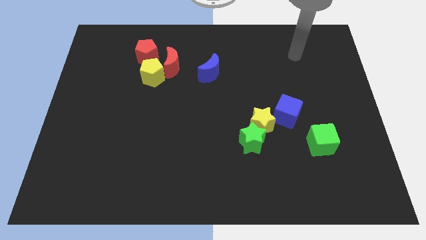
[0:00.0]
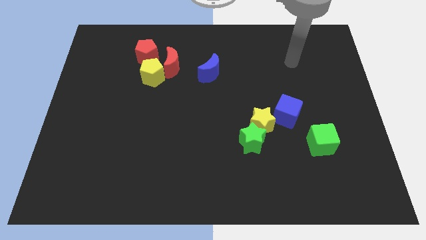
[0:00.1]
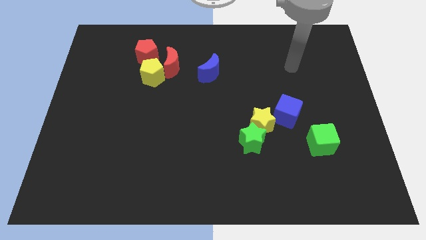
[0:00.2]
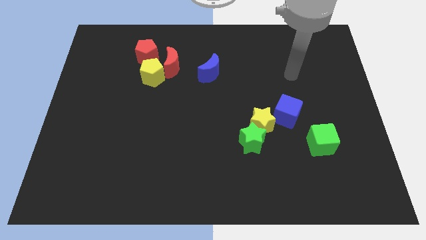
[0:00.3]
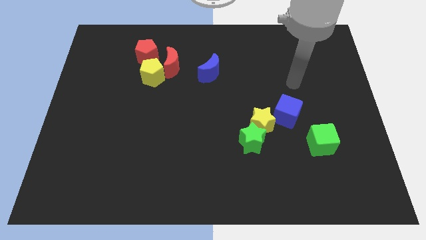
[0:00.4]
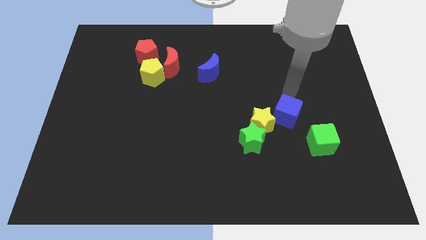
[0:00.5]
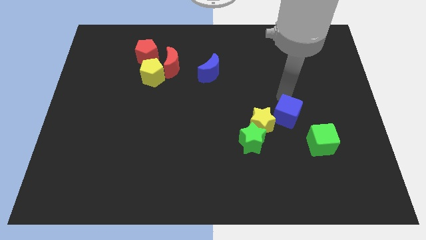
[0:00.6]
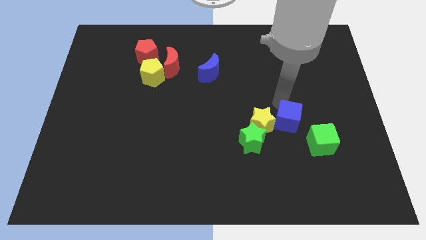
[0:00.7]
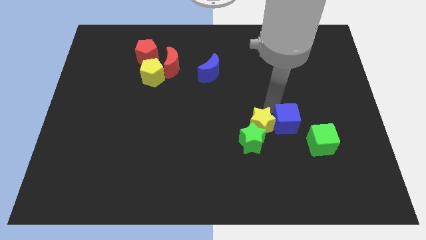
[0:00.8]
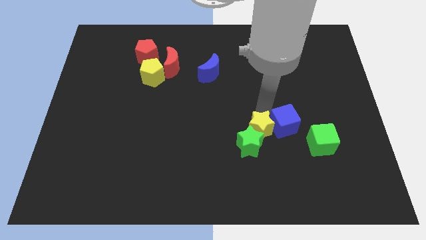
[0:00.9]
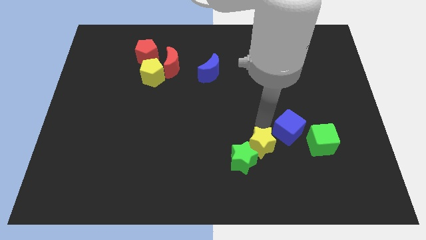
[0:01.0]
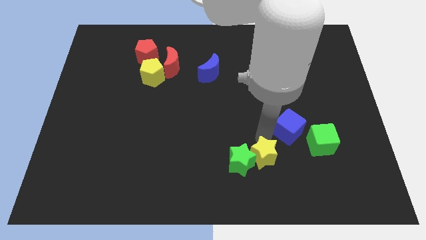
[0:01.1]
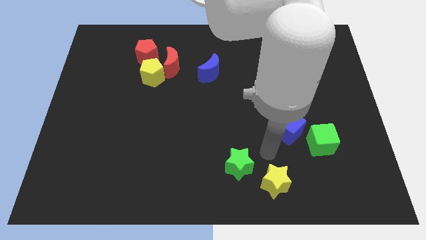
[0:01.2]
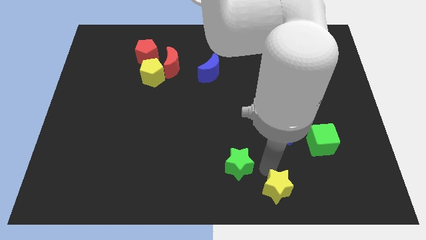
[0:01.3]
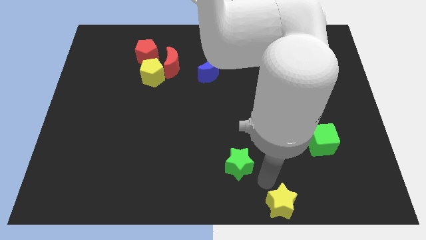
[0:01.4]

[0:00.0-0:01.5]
separate the green star from the yellow star

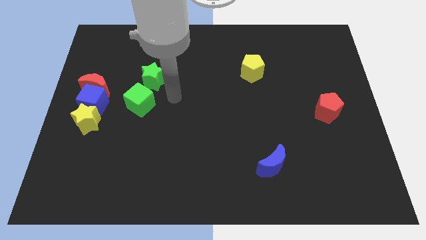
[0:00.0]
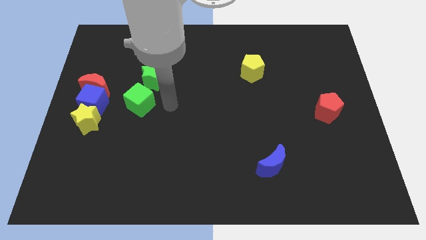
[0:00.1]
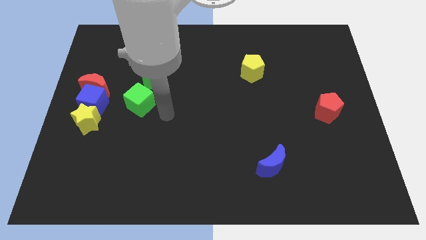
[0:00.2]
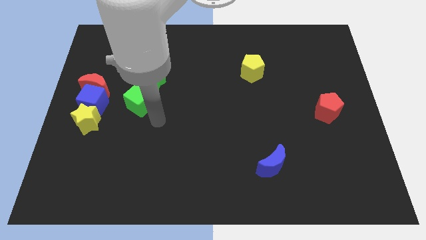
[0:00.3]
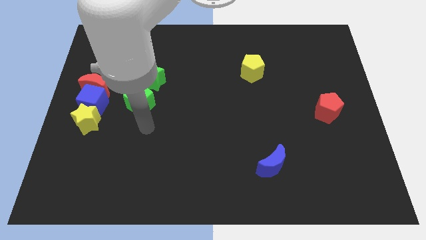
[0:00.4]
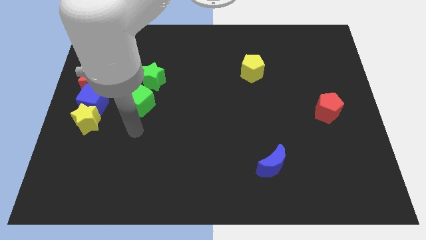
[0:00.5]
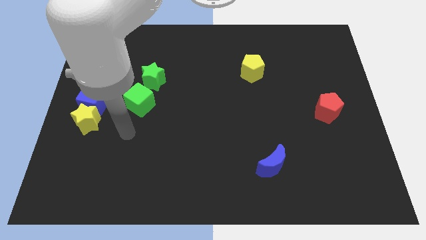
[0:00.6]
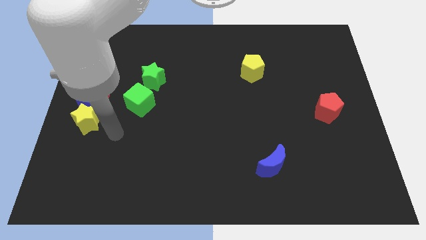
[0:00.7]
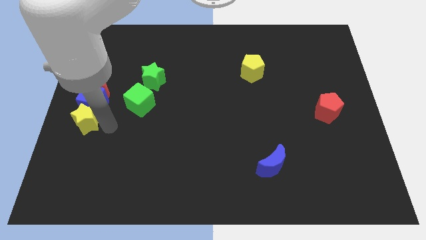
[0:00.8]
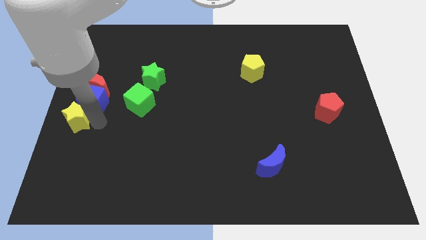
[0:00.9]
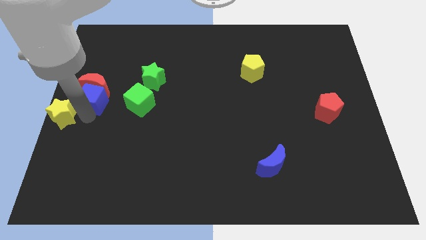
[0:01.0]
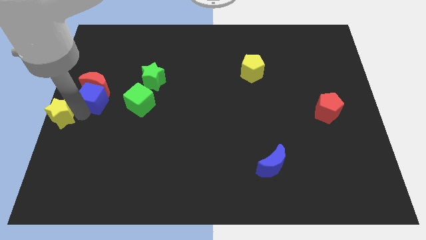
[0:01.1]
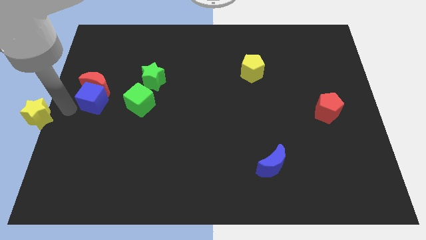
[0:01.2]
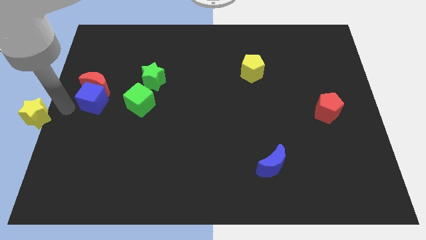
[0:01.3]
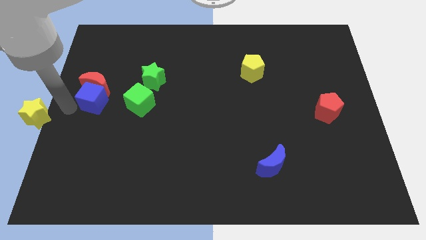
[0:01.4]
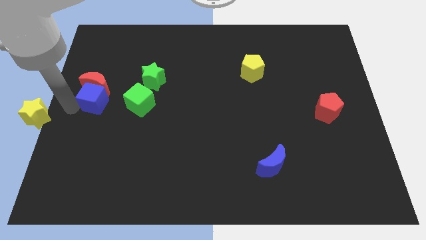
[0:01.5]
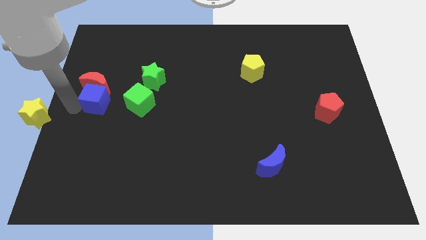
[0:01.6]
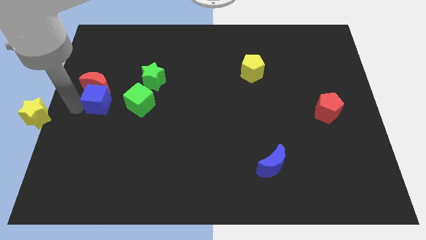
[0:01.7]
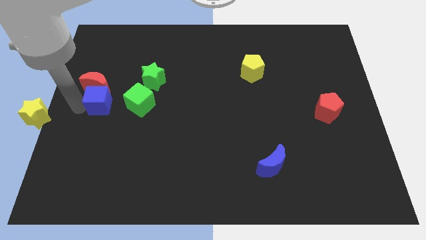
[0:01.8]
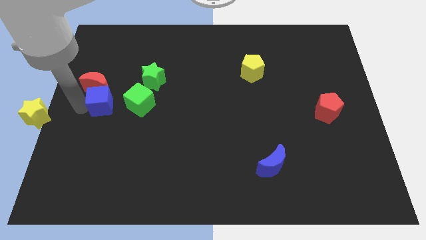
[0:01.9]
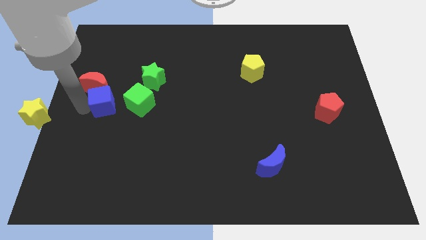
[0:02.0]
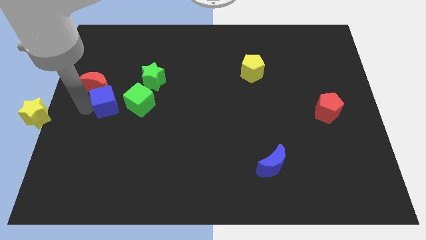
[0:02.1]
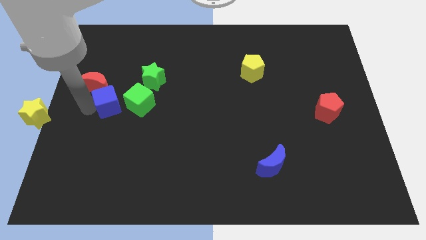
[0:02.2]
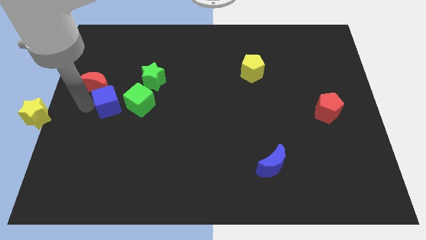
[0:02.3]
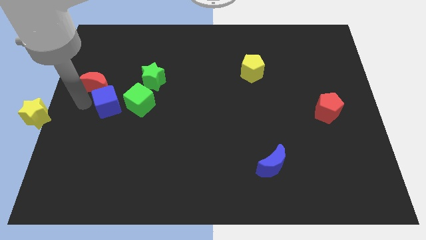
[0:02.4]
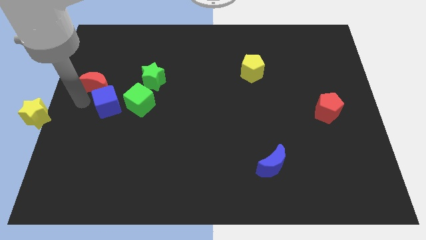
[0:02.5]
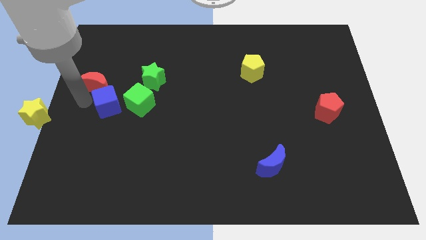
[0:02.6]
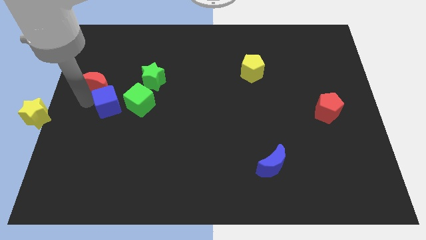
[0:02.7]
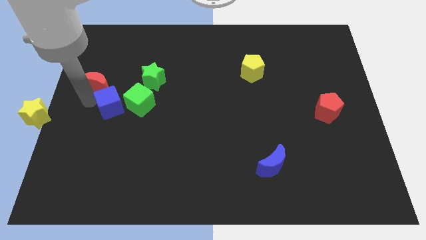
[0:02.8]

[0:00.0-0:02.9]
pull the blue cube apart from the red moon and yellow star

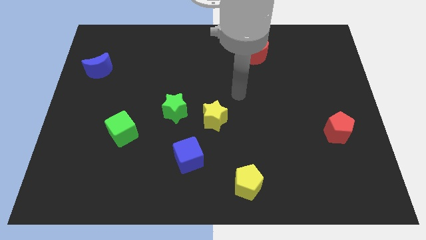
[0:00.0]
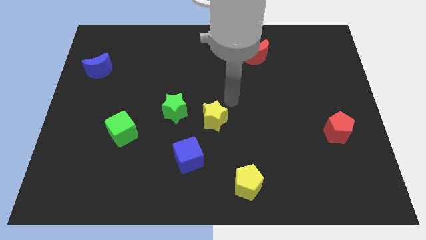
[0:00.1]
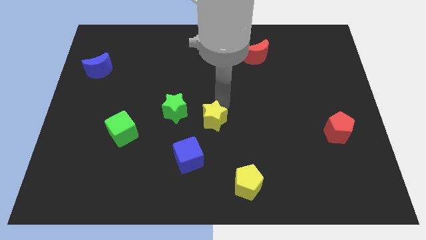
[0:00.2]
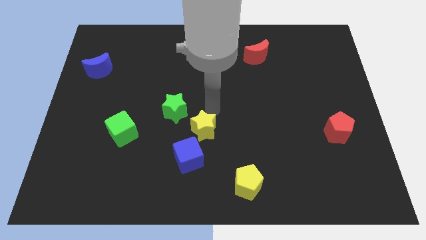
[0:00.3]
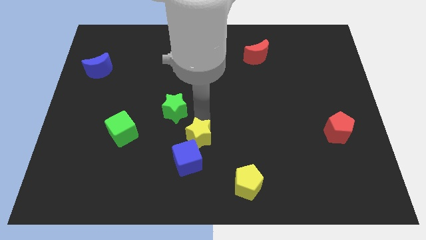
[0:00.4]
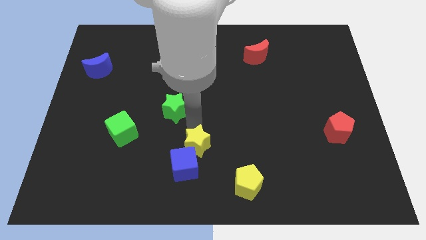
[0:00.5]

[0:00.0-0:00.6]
move the green star away from the yellow star

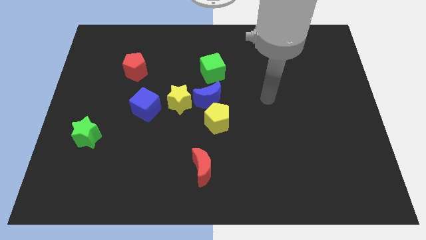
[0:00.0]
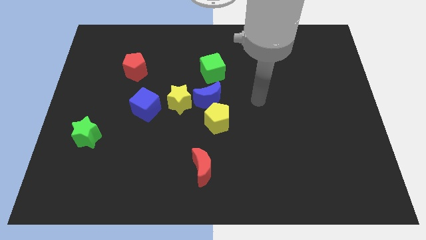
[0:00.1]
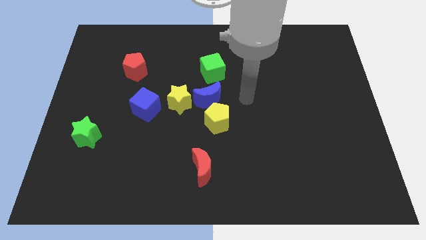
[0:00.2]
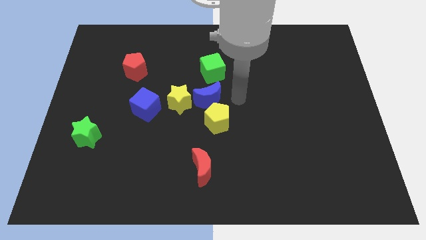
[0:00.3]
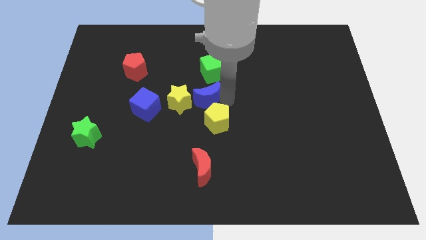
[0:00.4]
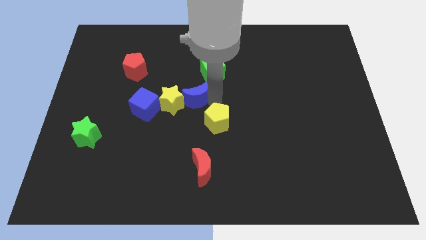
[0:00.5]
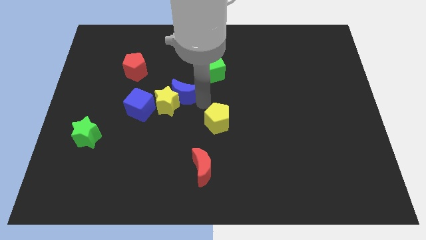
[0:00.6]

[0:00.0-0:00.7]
pull the yellow pentagon apart from the blue moon

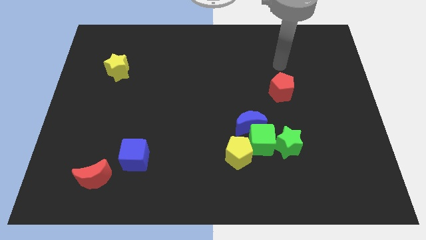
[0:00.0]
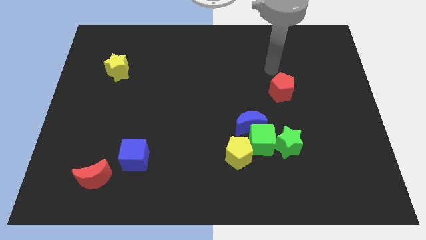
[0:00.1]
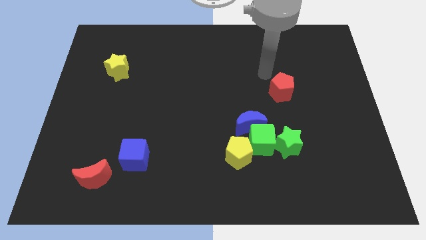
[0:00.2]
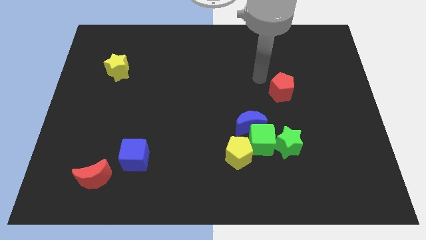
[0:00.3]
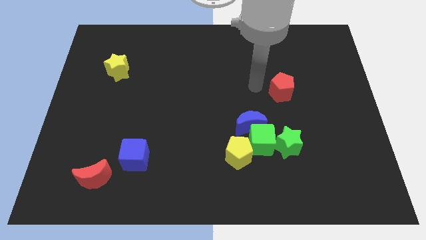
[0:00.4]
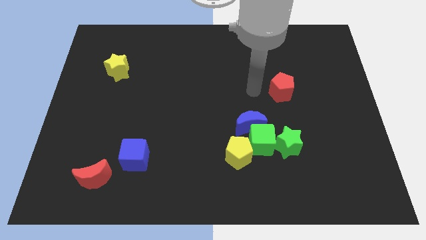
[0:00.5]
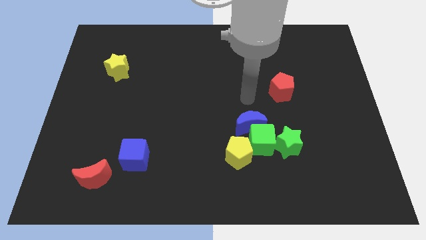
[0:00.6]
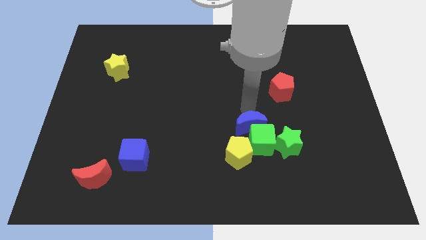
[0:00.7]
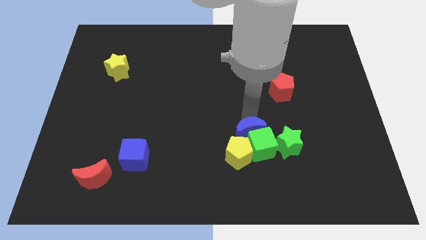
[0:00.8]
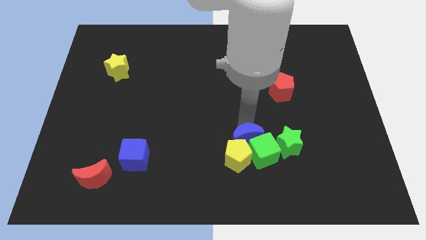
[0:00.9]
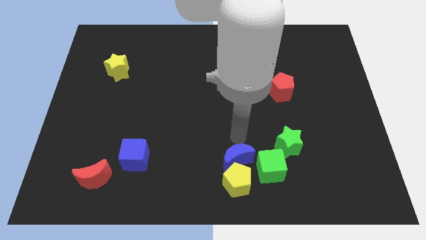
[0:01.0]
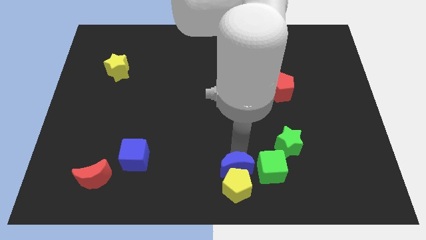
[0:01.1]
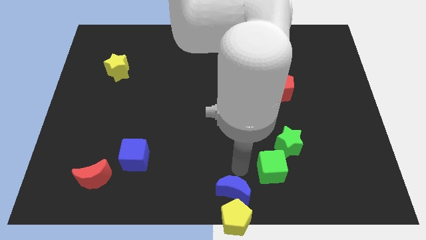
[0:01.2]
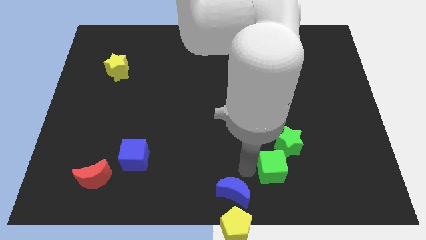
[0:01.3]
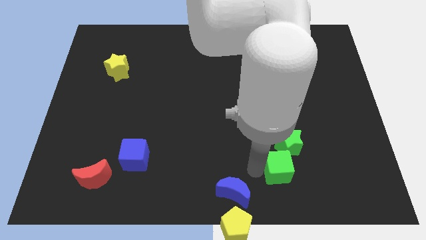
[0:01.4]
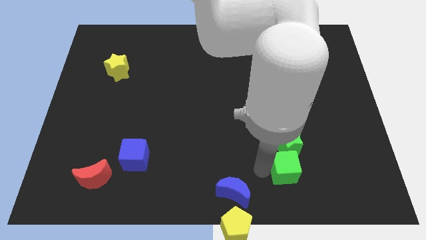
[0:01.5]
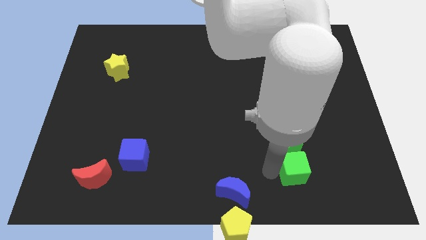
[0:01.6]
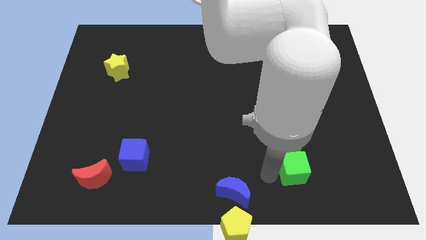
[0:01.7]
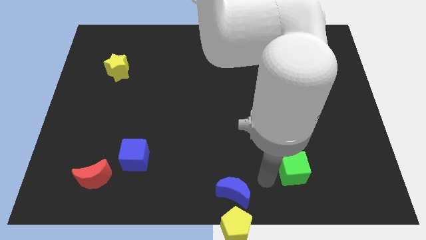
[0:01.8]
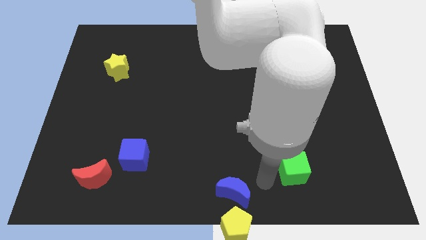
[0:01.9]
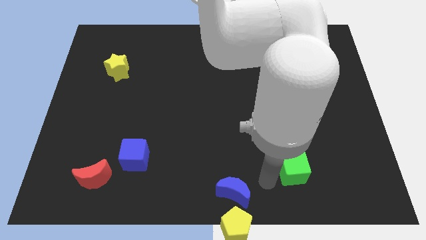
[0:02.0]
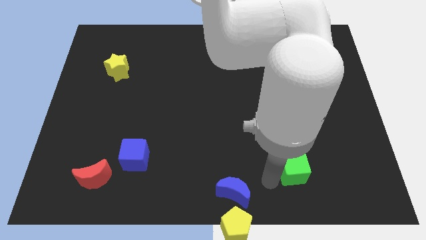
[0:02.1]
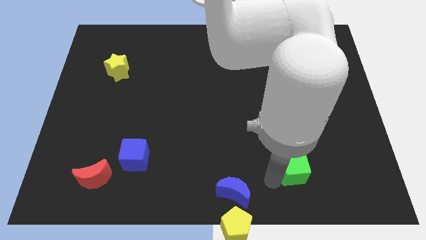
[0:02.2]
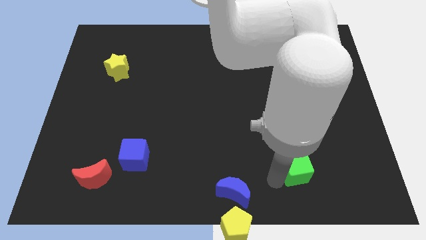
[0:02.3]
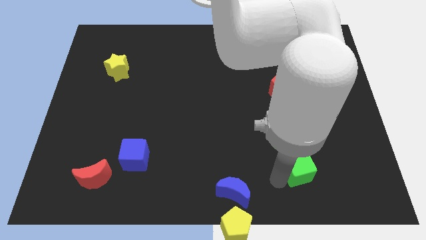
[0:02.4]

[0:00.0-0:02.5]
separate the green cube from the group

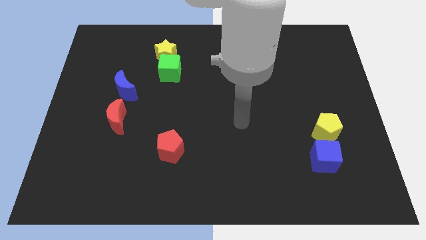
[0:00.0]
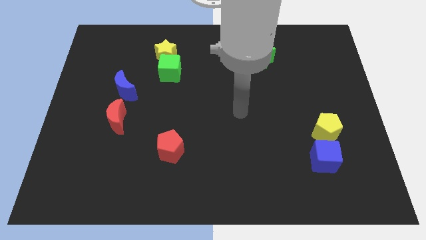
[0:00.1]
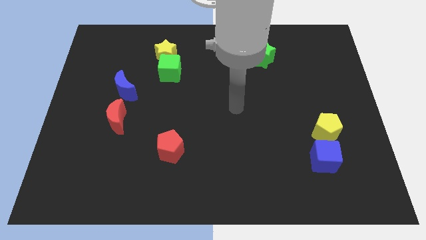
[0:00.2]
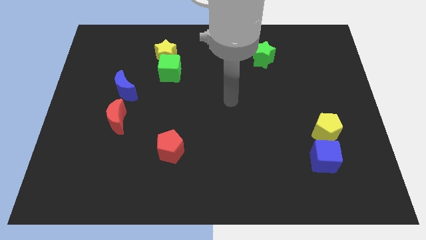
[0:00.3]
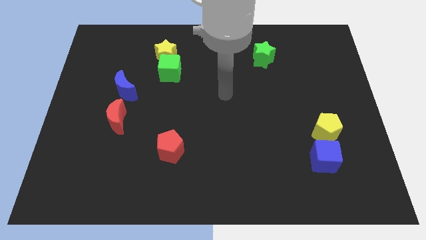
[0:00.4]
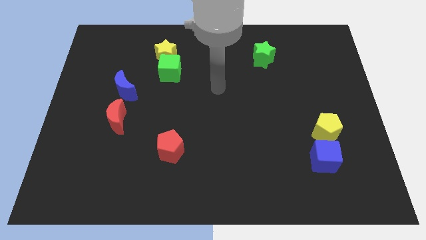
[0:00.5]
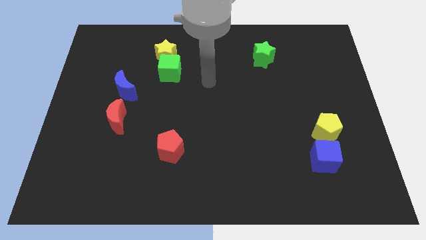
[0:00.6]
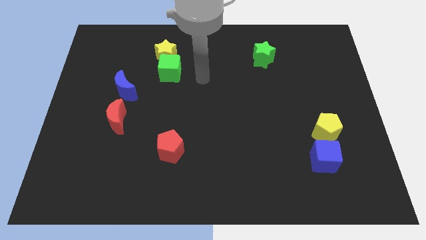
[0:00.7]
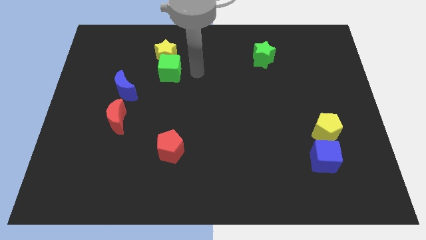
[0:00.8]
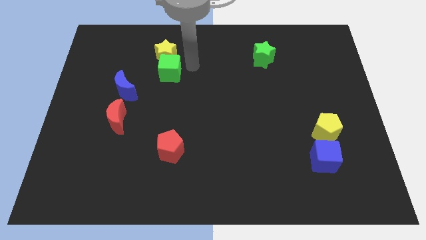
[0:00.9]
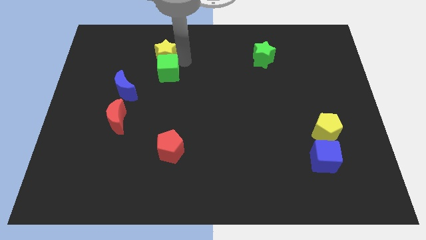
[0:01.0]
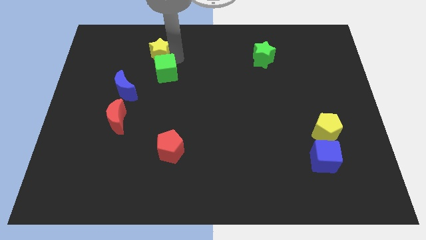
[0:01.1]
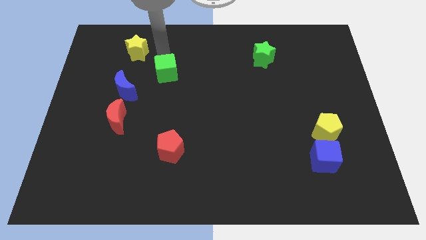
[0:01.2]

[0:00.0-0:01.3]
pull the green cube apart from the yellow star
